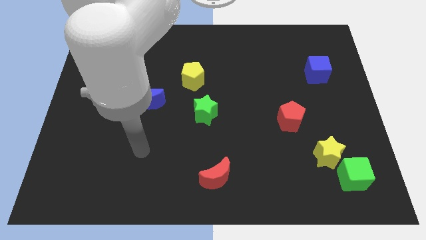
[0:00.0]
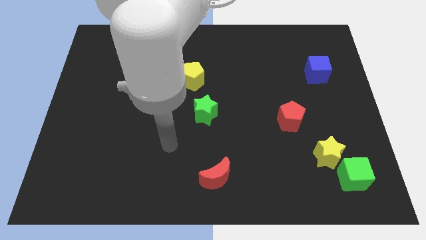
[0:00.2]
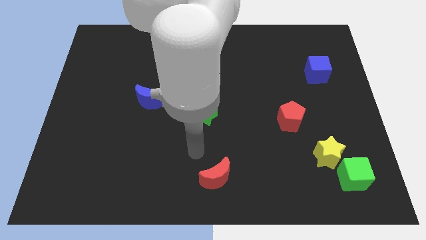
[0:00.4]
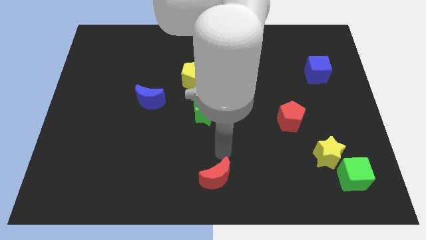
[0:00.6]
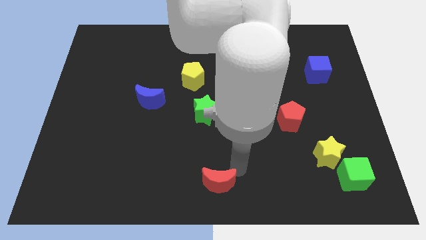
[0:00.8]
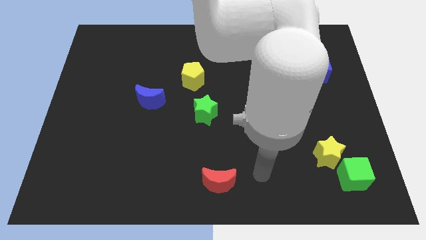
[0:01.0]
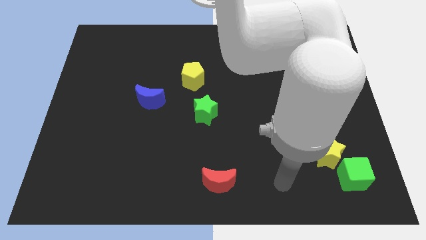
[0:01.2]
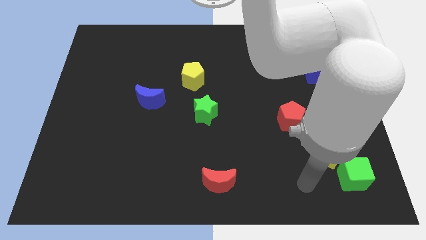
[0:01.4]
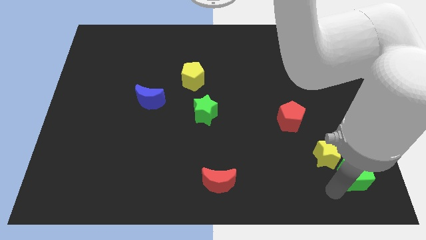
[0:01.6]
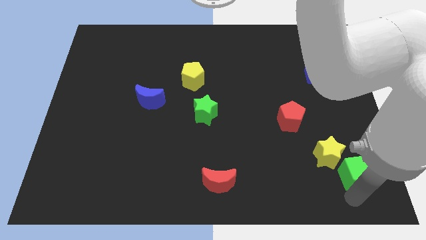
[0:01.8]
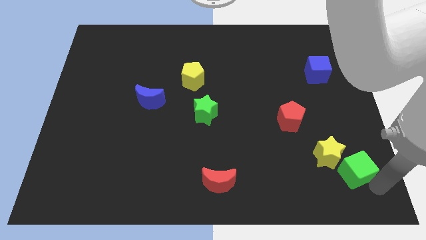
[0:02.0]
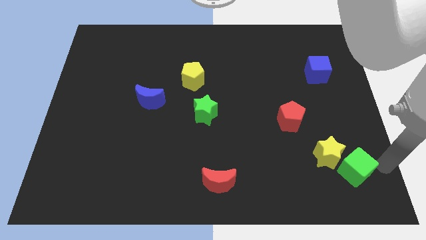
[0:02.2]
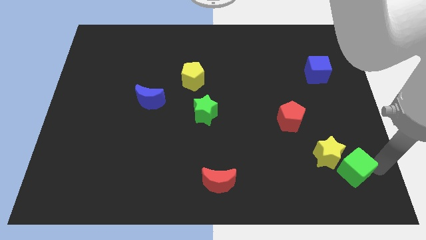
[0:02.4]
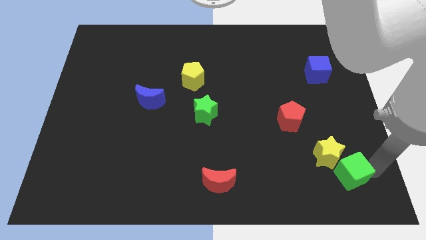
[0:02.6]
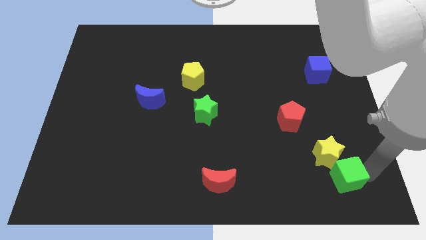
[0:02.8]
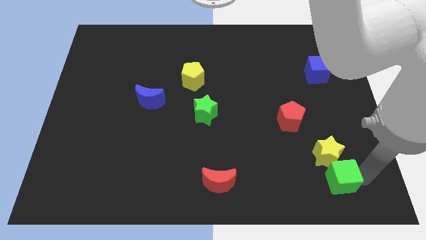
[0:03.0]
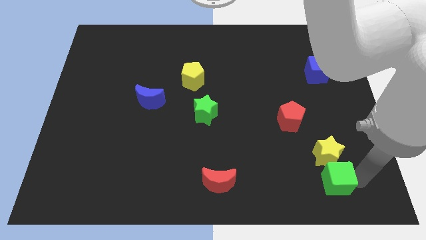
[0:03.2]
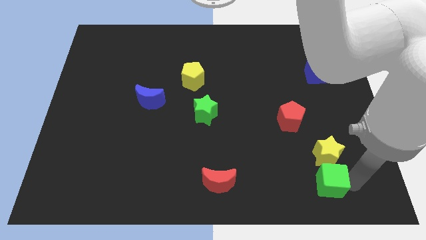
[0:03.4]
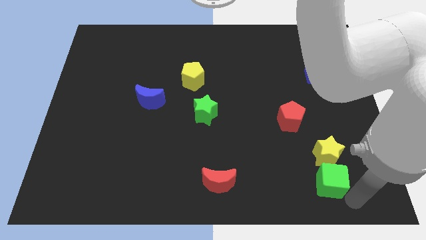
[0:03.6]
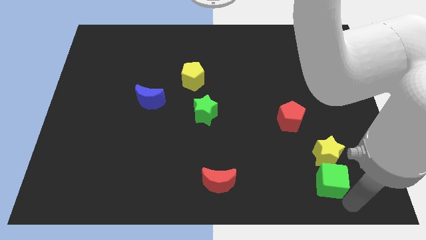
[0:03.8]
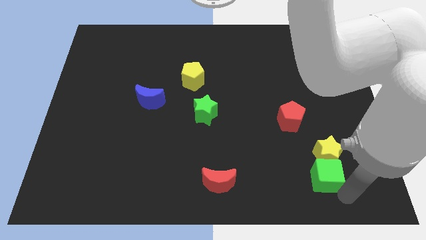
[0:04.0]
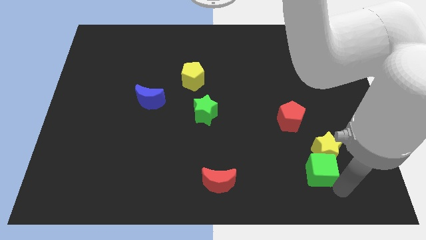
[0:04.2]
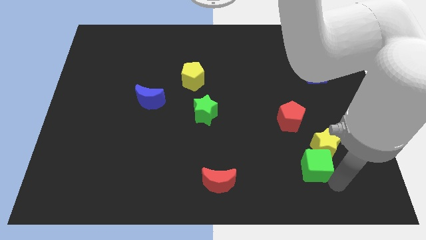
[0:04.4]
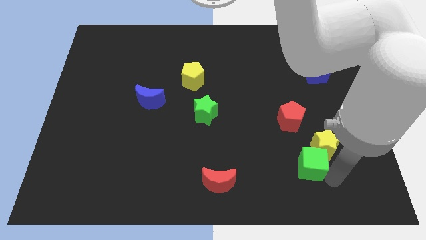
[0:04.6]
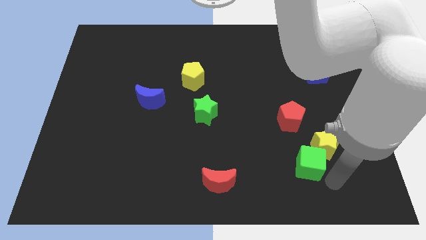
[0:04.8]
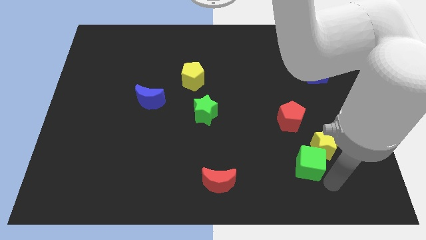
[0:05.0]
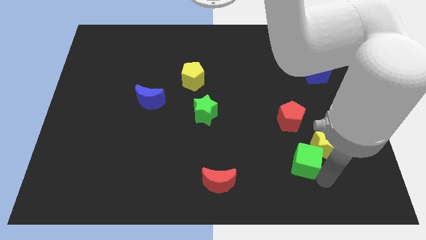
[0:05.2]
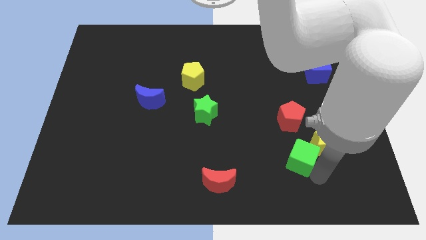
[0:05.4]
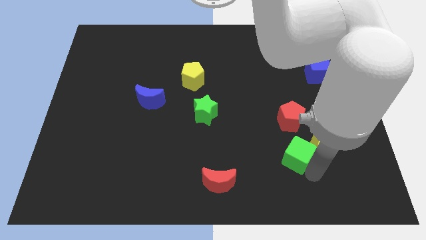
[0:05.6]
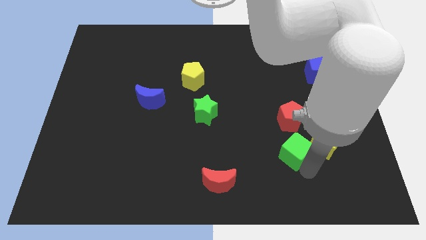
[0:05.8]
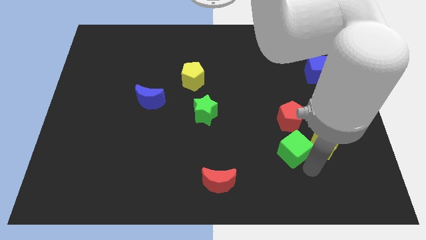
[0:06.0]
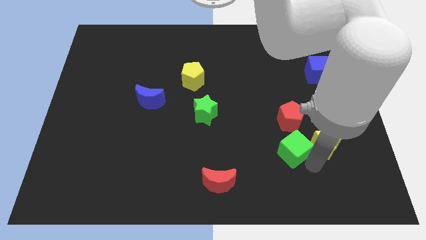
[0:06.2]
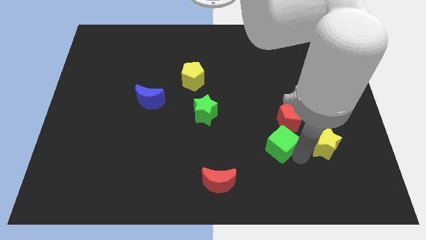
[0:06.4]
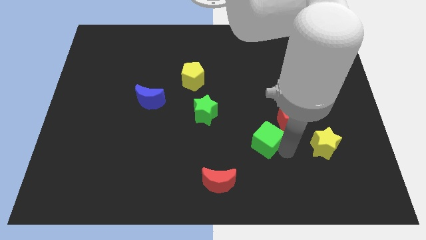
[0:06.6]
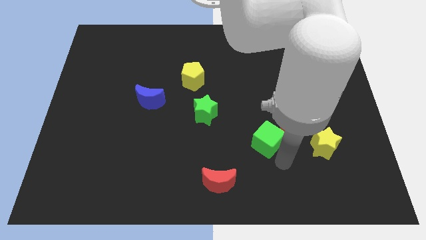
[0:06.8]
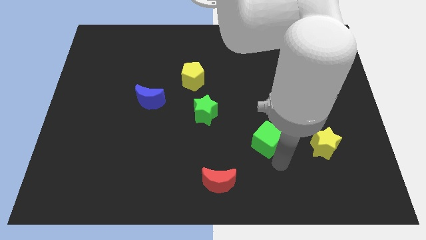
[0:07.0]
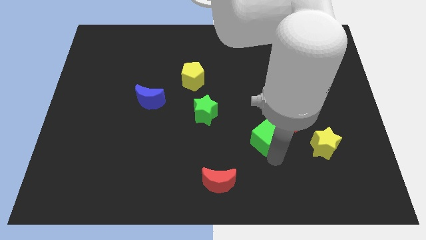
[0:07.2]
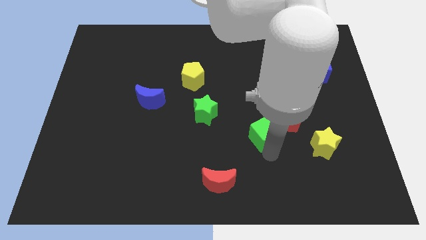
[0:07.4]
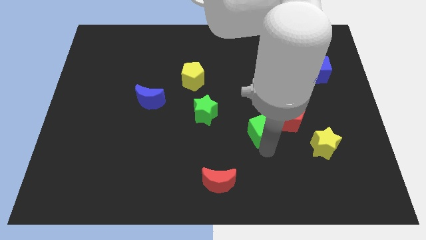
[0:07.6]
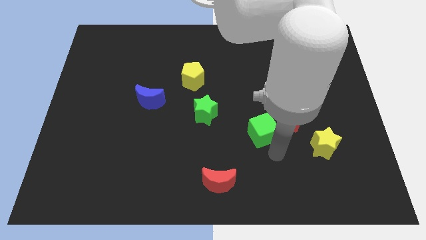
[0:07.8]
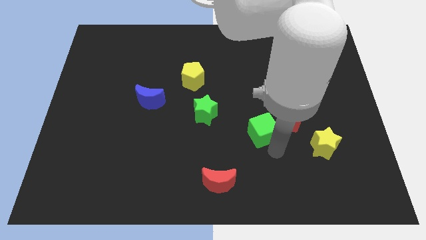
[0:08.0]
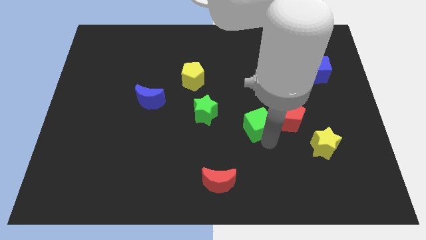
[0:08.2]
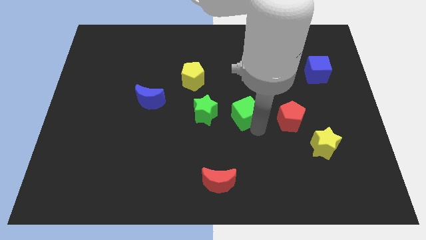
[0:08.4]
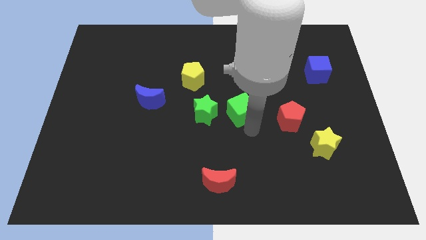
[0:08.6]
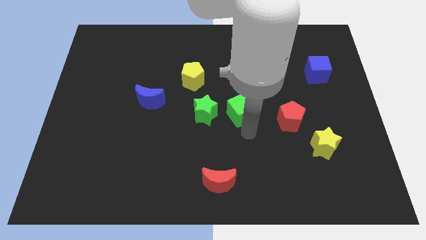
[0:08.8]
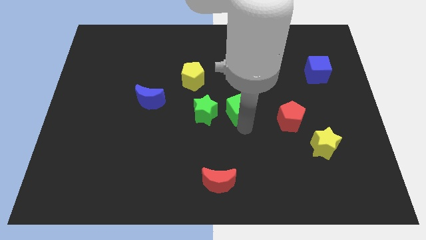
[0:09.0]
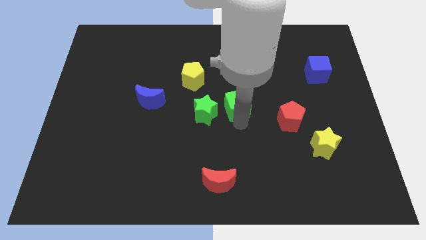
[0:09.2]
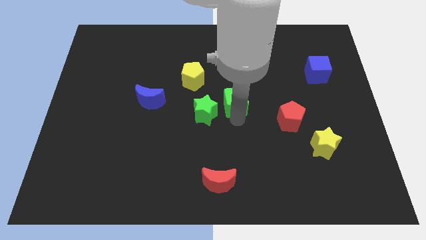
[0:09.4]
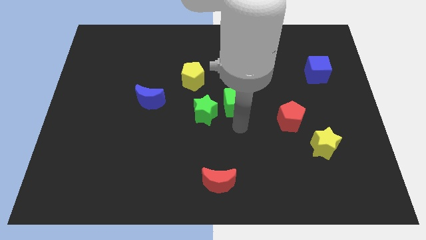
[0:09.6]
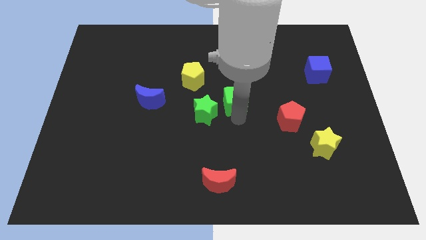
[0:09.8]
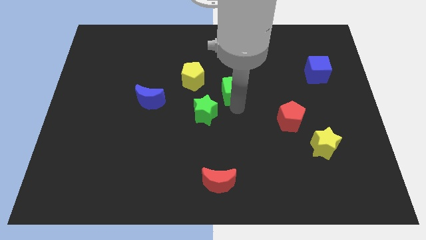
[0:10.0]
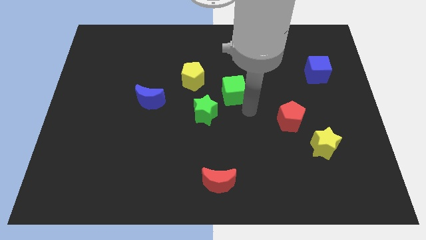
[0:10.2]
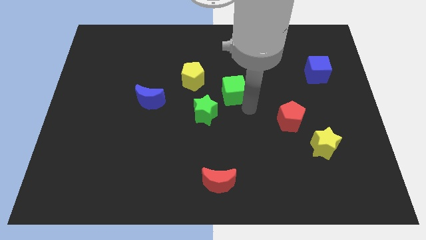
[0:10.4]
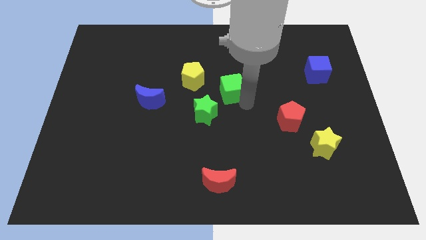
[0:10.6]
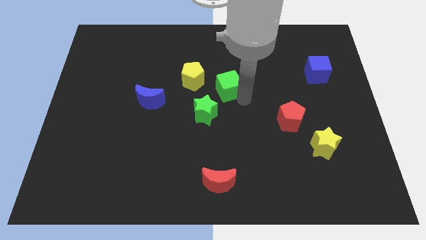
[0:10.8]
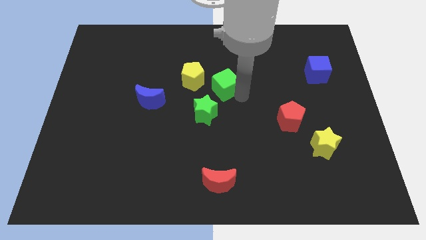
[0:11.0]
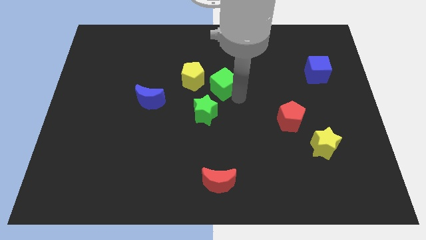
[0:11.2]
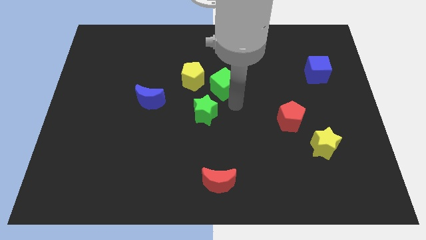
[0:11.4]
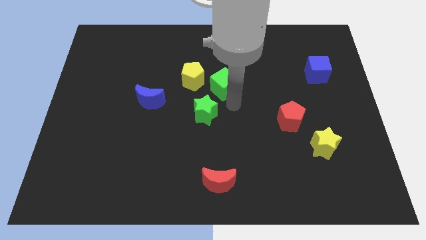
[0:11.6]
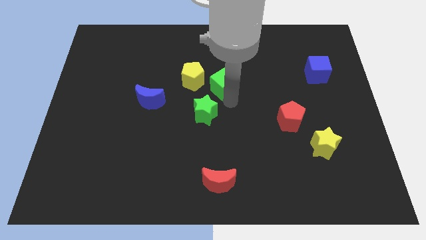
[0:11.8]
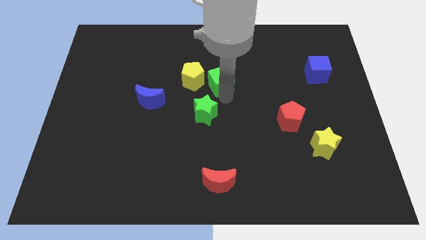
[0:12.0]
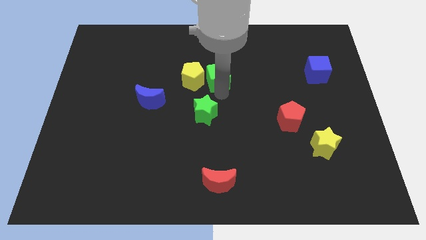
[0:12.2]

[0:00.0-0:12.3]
slide the green cube diagonally up and to the right of the yellow pentagon
